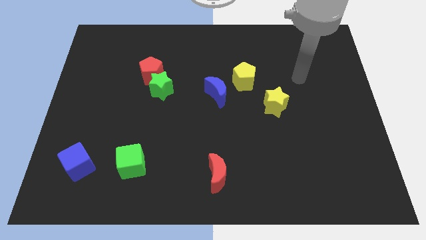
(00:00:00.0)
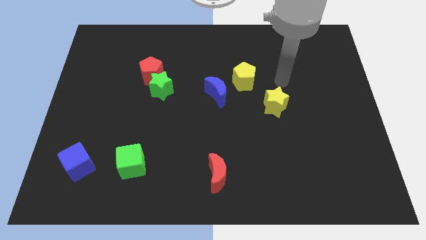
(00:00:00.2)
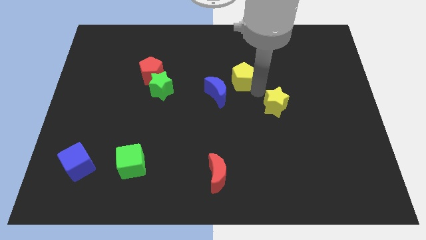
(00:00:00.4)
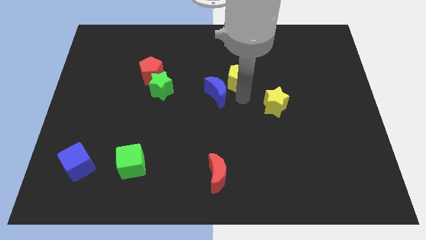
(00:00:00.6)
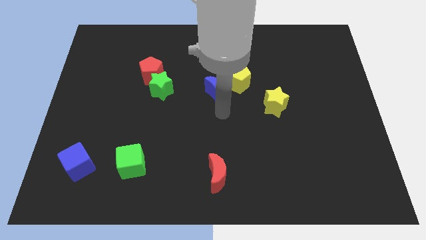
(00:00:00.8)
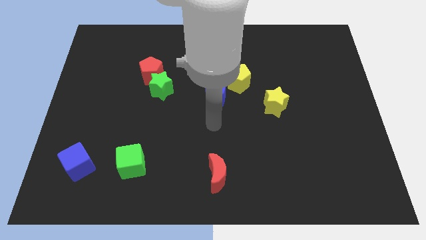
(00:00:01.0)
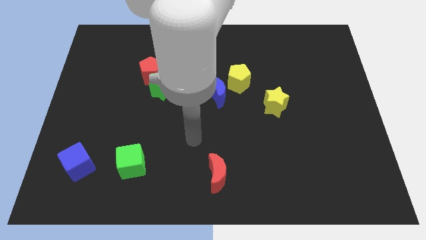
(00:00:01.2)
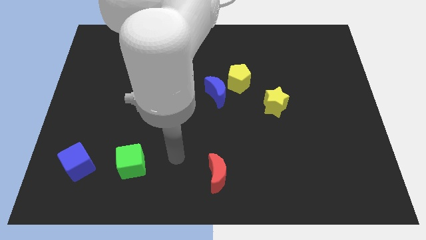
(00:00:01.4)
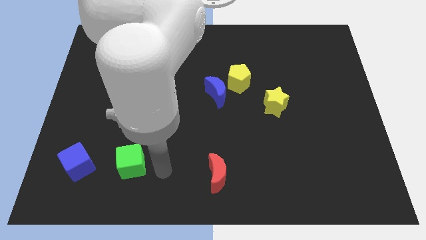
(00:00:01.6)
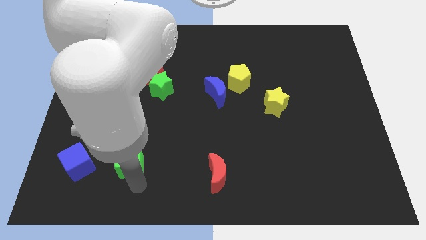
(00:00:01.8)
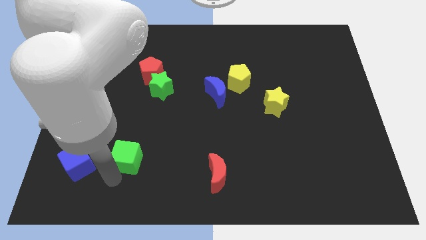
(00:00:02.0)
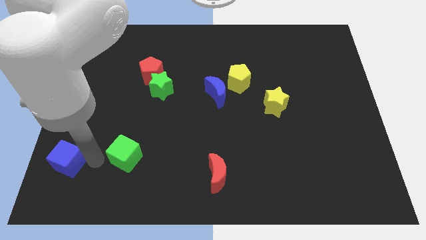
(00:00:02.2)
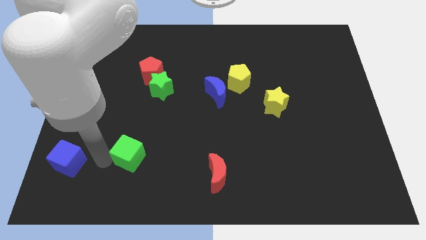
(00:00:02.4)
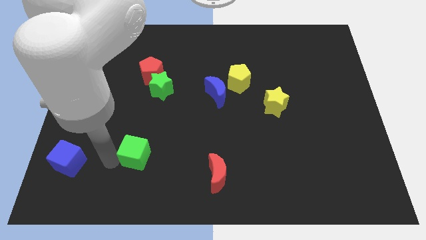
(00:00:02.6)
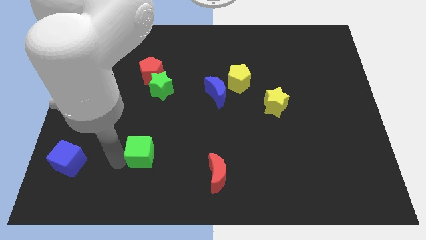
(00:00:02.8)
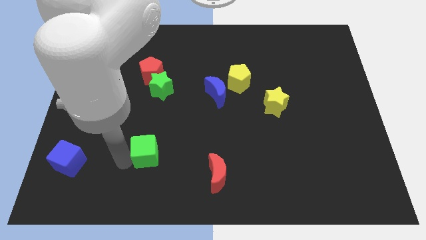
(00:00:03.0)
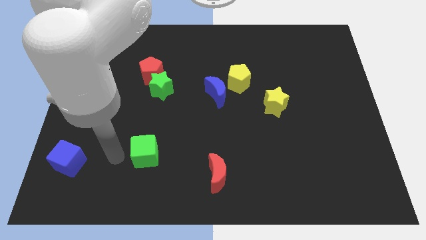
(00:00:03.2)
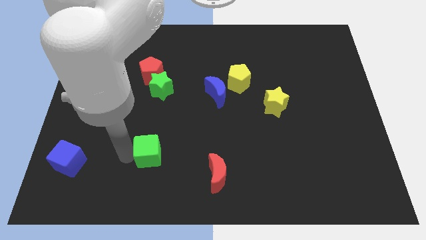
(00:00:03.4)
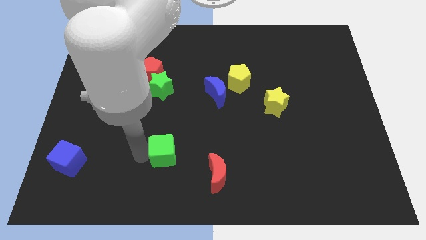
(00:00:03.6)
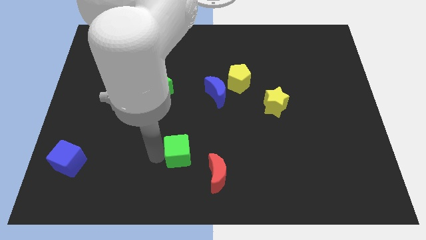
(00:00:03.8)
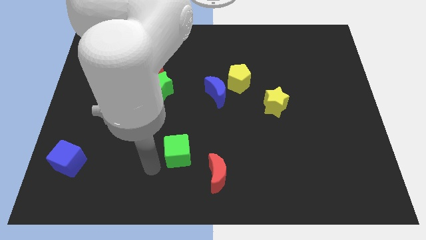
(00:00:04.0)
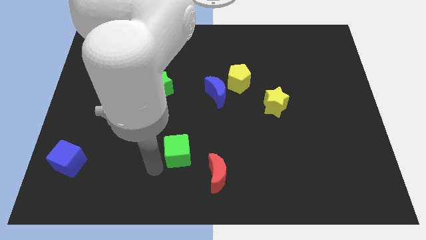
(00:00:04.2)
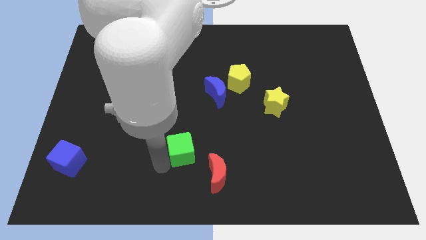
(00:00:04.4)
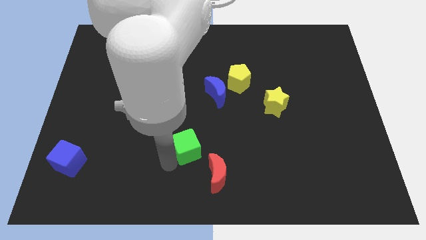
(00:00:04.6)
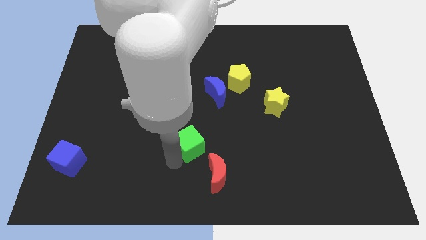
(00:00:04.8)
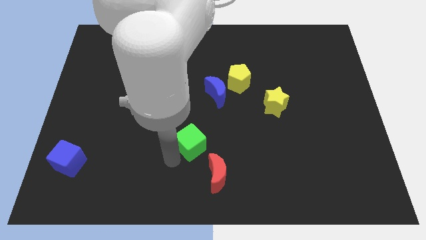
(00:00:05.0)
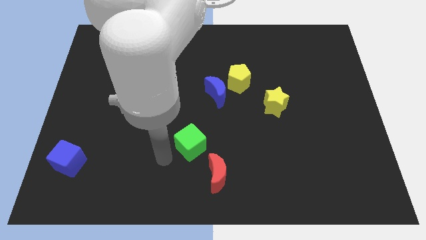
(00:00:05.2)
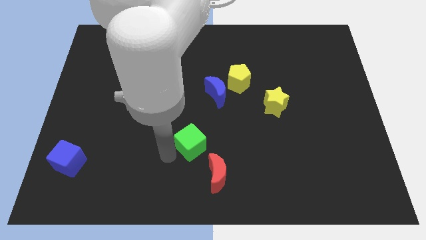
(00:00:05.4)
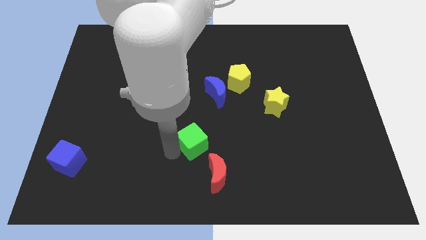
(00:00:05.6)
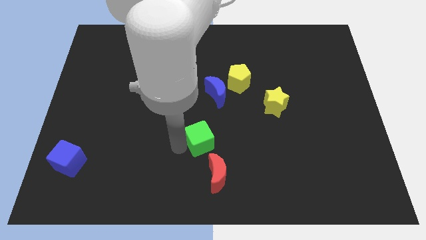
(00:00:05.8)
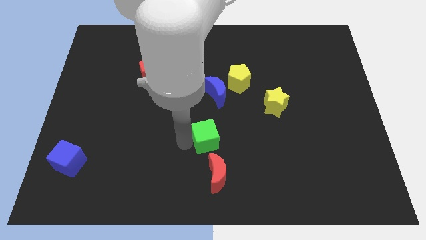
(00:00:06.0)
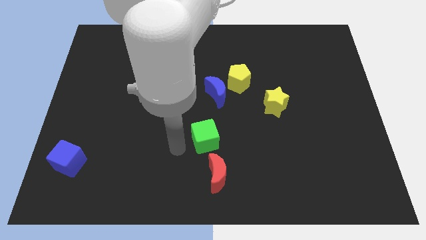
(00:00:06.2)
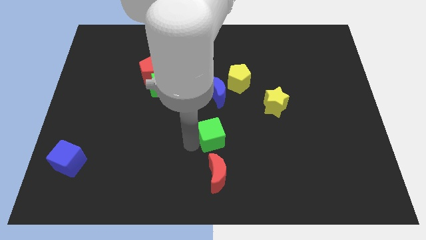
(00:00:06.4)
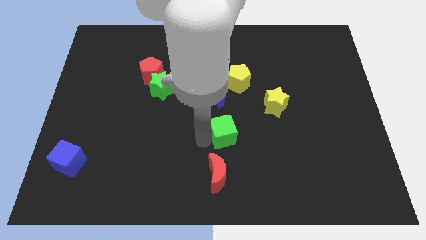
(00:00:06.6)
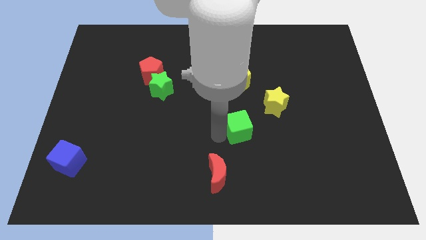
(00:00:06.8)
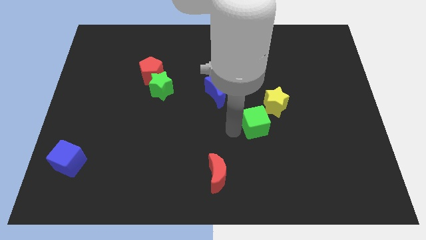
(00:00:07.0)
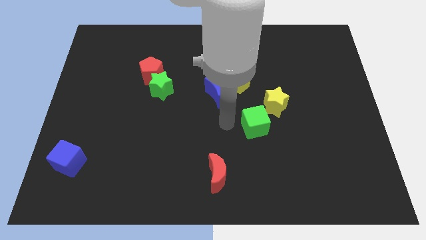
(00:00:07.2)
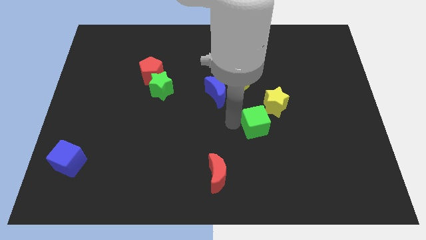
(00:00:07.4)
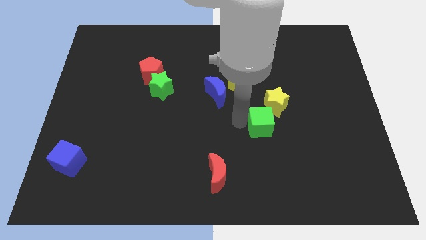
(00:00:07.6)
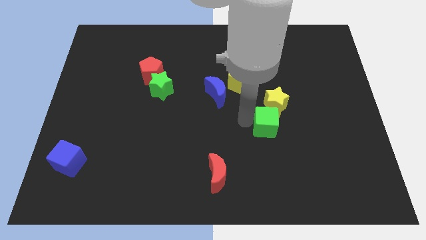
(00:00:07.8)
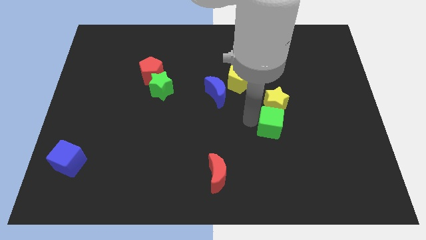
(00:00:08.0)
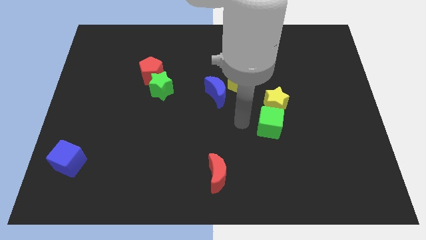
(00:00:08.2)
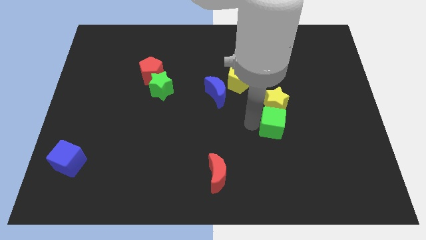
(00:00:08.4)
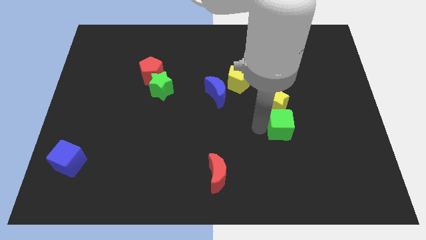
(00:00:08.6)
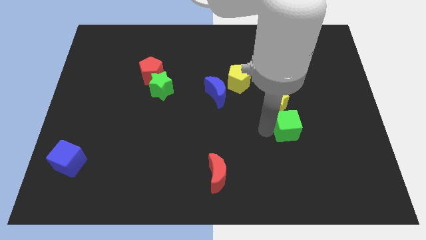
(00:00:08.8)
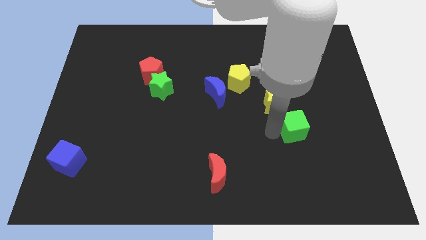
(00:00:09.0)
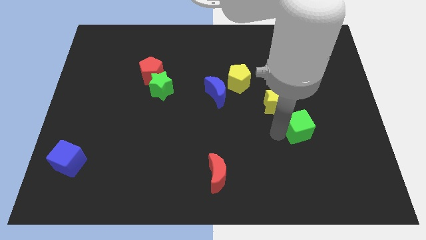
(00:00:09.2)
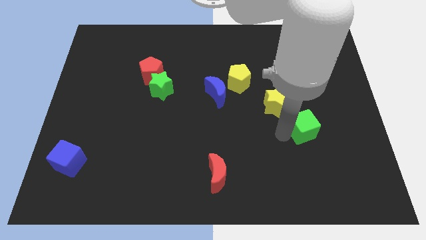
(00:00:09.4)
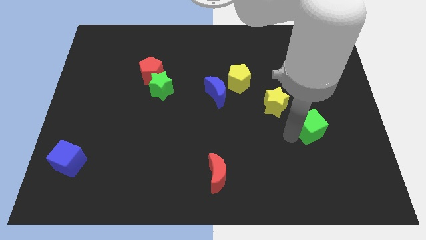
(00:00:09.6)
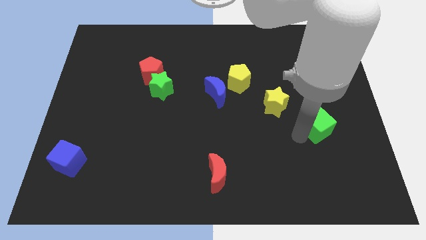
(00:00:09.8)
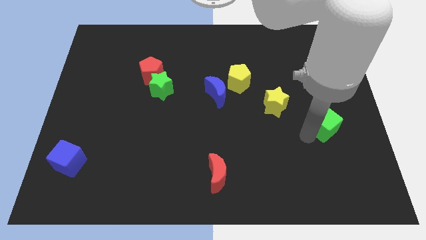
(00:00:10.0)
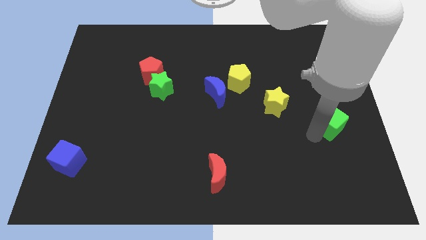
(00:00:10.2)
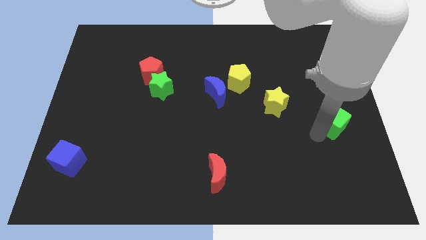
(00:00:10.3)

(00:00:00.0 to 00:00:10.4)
put the green cube to the right side

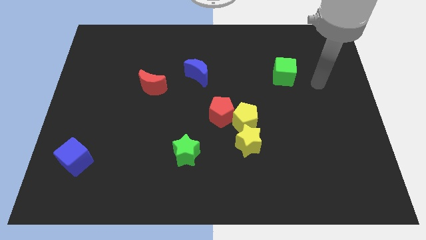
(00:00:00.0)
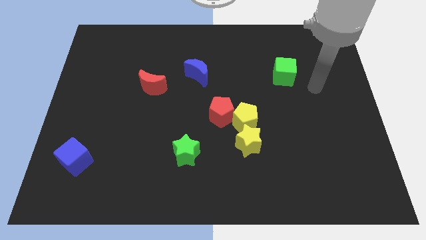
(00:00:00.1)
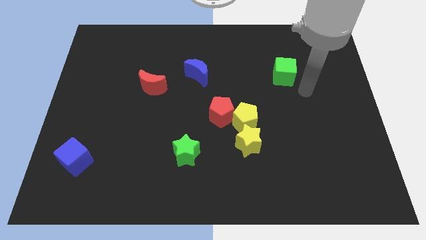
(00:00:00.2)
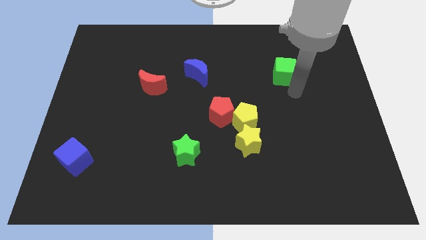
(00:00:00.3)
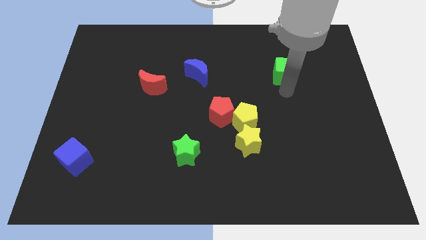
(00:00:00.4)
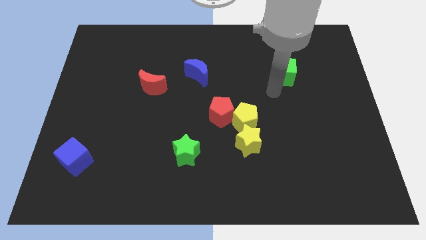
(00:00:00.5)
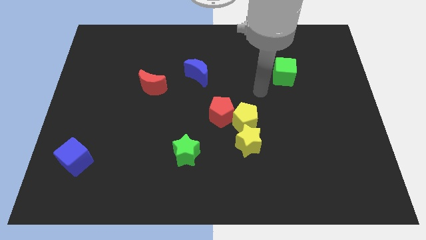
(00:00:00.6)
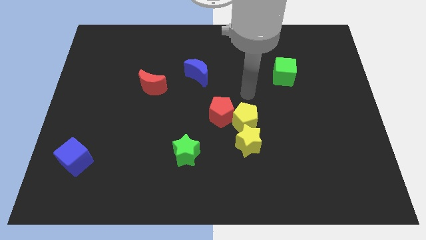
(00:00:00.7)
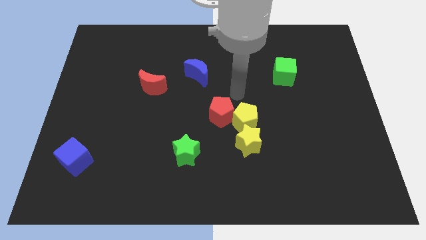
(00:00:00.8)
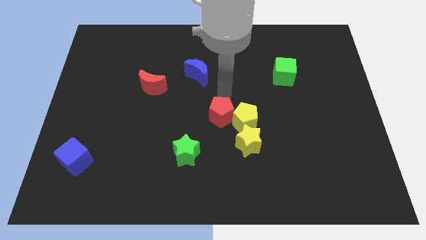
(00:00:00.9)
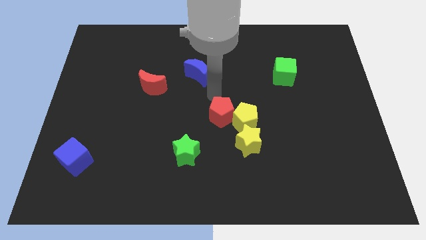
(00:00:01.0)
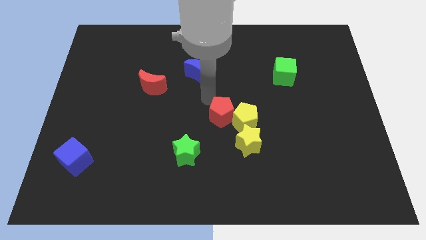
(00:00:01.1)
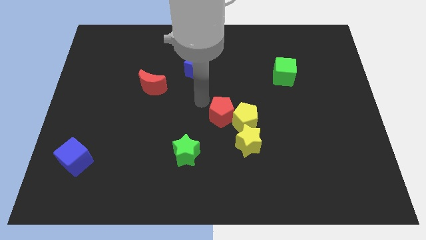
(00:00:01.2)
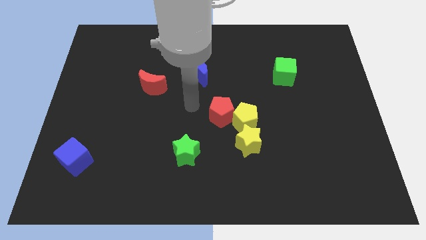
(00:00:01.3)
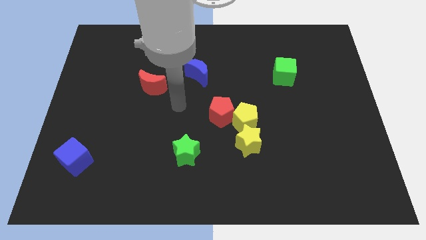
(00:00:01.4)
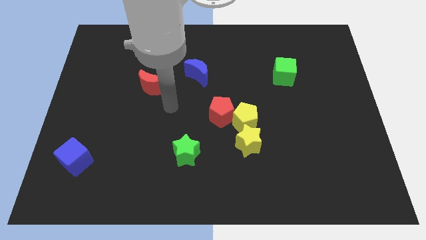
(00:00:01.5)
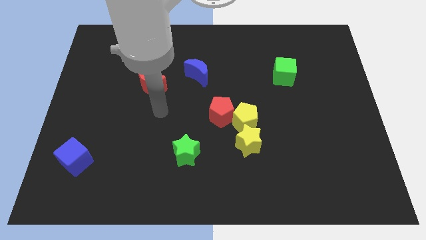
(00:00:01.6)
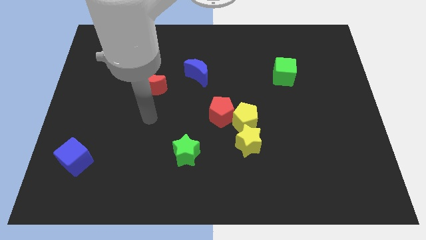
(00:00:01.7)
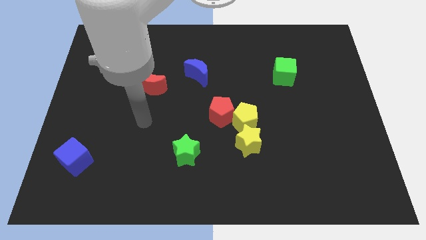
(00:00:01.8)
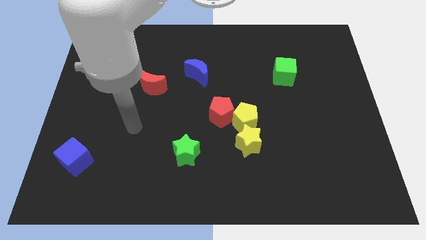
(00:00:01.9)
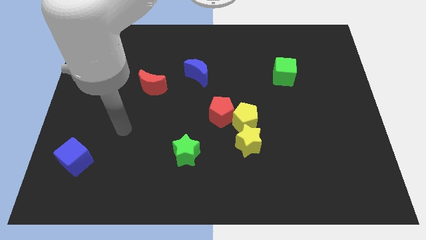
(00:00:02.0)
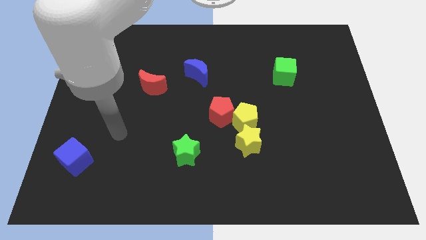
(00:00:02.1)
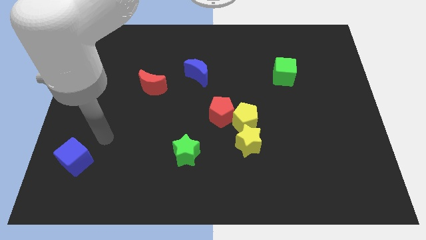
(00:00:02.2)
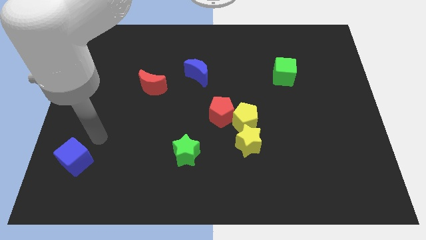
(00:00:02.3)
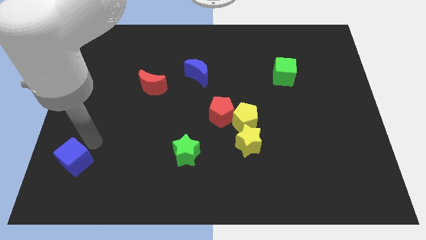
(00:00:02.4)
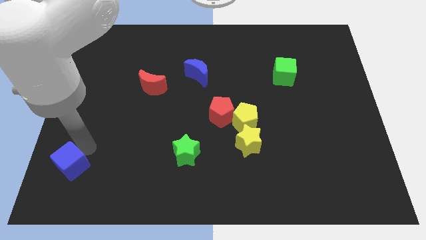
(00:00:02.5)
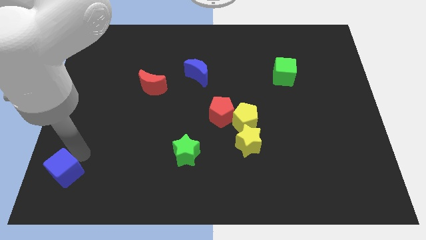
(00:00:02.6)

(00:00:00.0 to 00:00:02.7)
put the blue cube to the bottom left

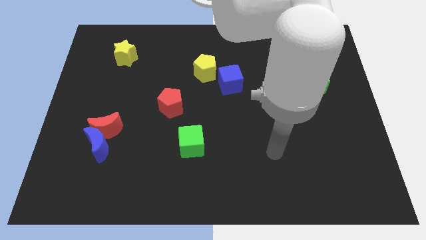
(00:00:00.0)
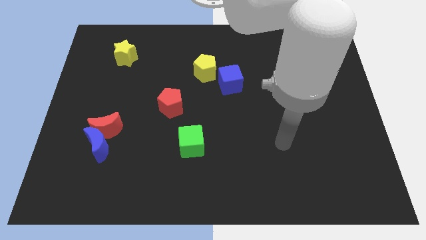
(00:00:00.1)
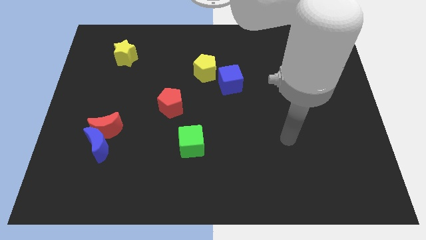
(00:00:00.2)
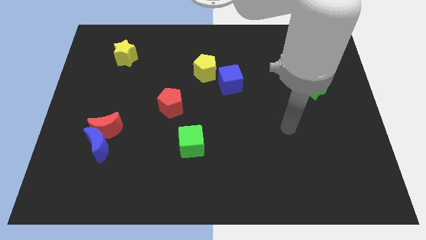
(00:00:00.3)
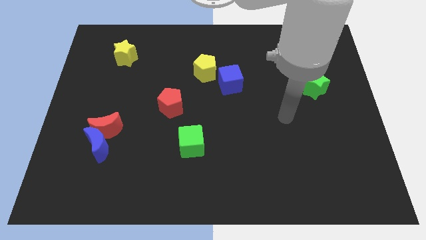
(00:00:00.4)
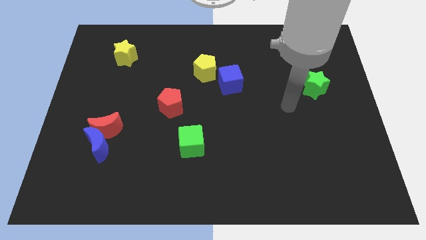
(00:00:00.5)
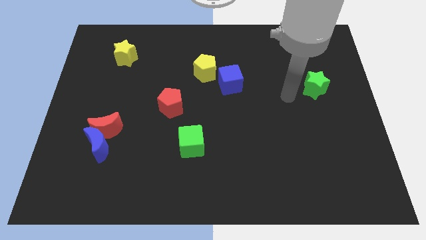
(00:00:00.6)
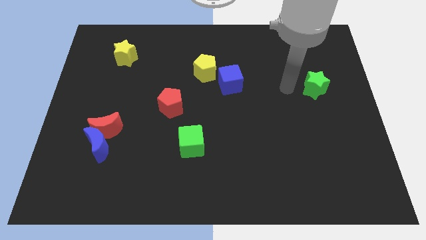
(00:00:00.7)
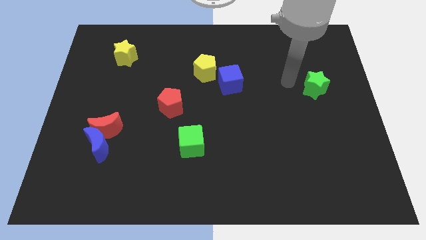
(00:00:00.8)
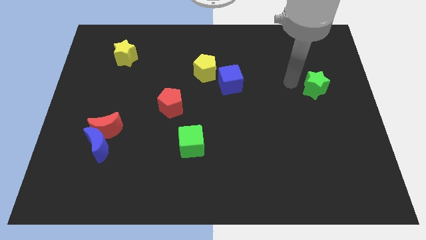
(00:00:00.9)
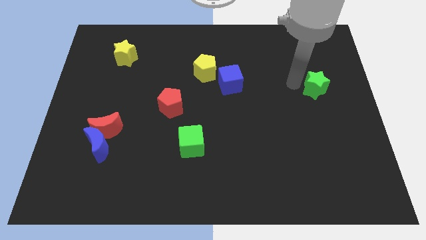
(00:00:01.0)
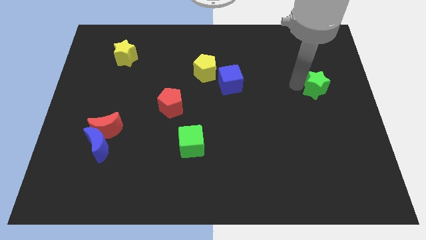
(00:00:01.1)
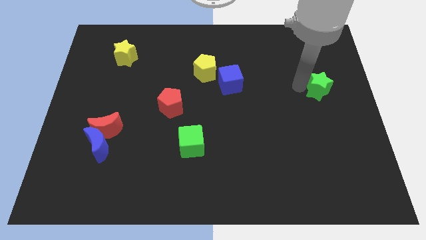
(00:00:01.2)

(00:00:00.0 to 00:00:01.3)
push the green star to the center right
